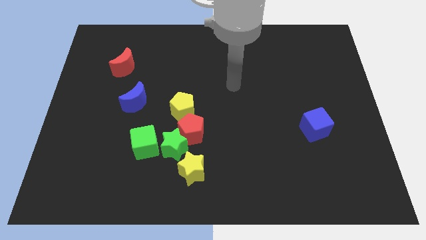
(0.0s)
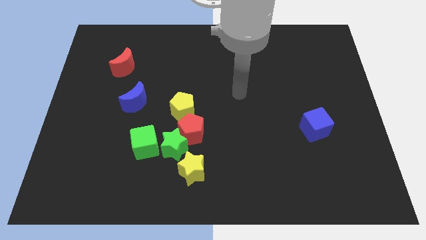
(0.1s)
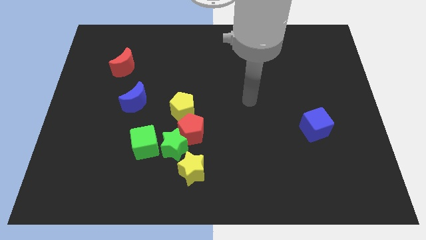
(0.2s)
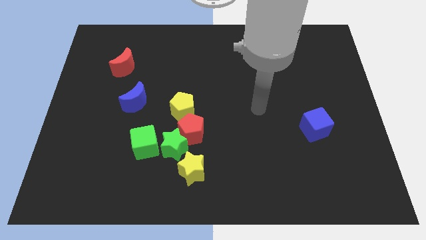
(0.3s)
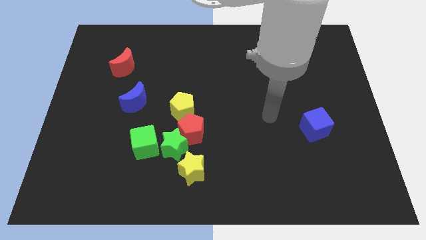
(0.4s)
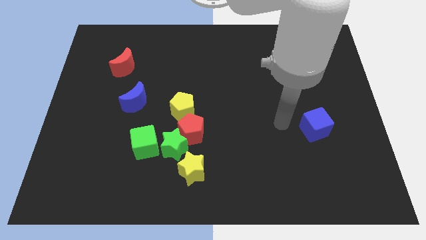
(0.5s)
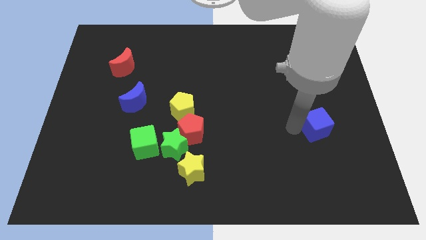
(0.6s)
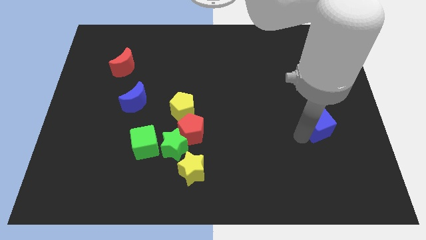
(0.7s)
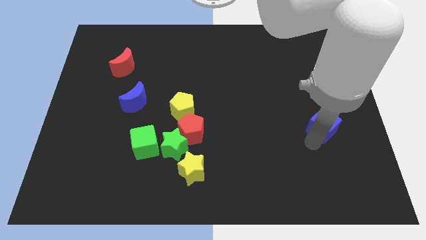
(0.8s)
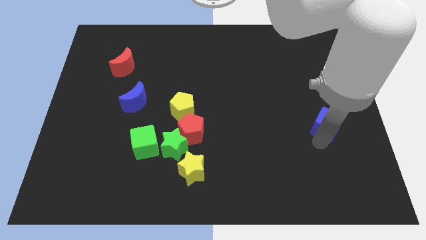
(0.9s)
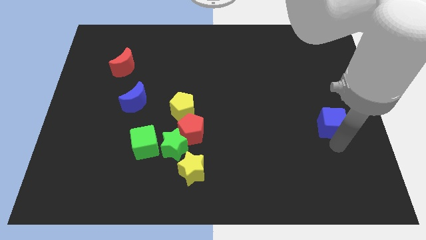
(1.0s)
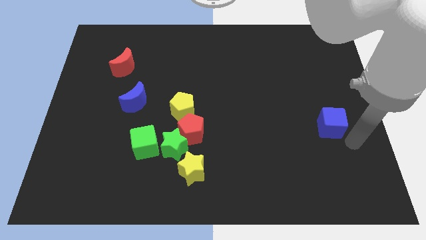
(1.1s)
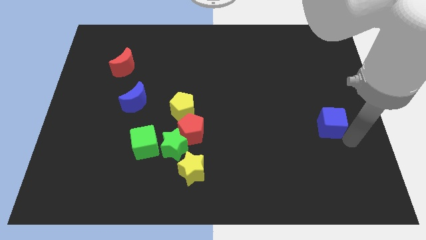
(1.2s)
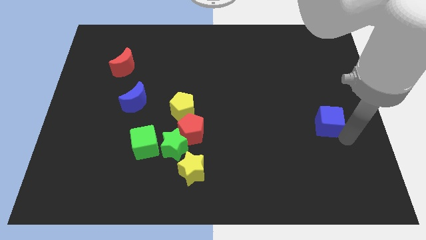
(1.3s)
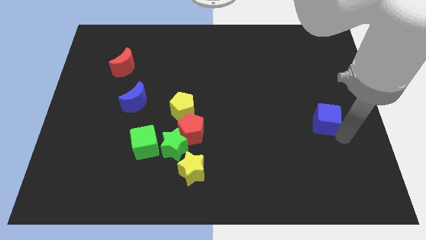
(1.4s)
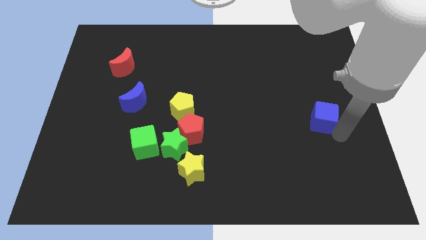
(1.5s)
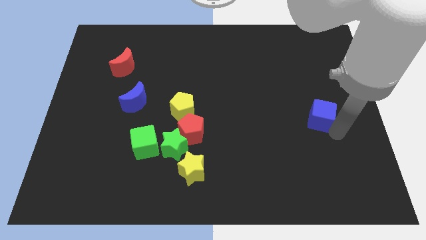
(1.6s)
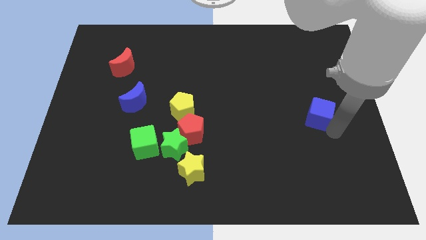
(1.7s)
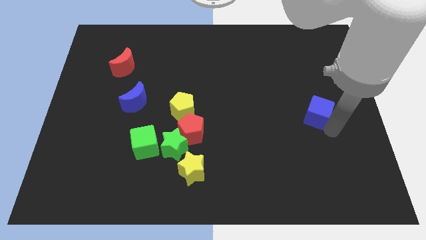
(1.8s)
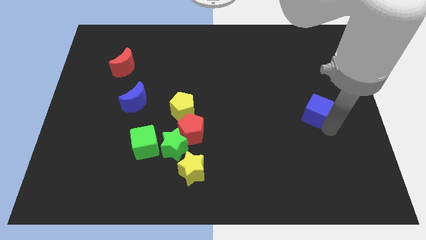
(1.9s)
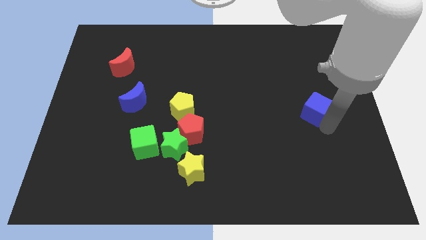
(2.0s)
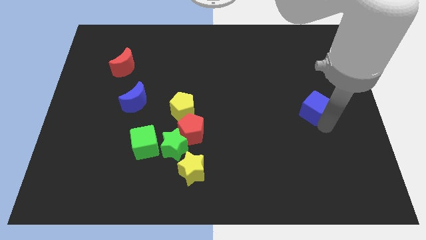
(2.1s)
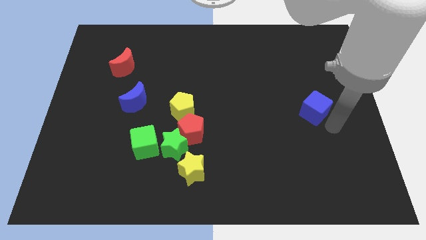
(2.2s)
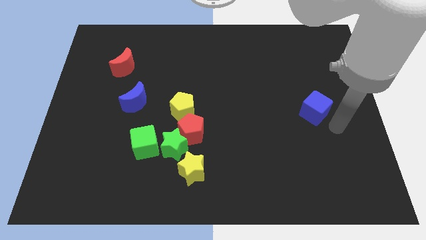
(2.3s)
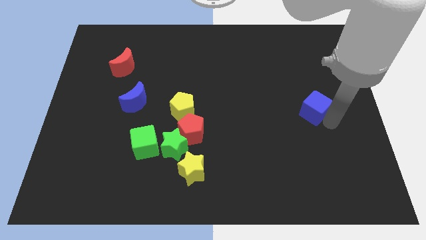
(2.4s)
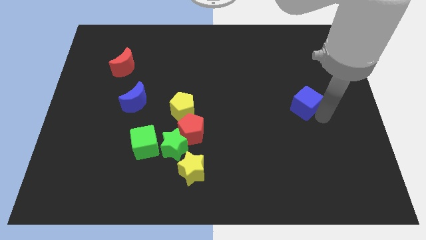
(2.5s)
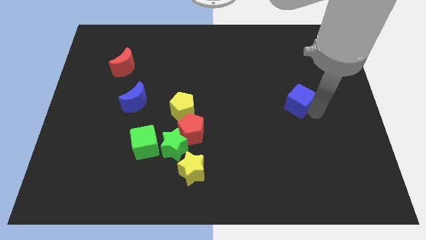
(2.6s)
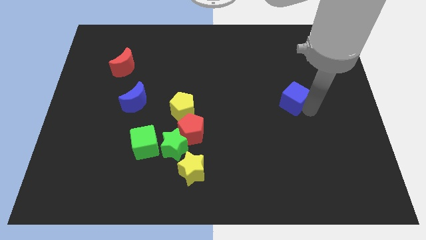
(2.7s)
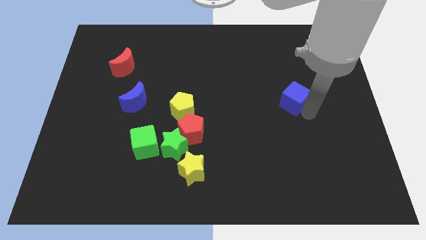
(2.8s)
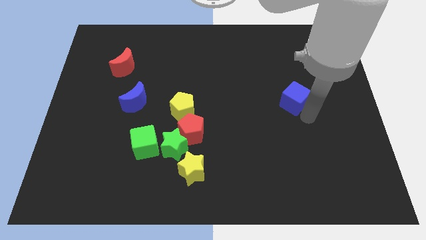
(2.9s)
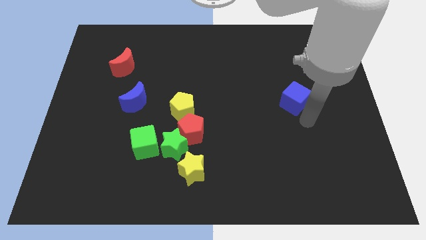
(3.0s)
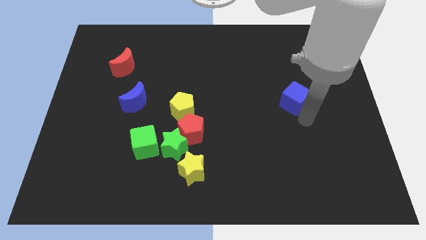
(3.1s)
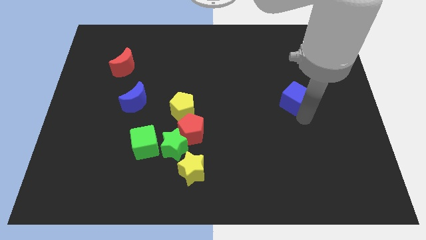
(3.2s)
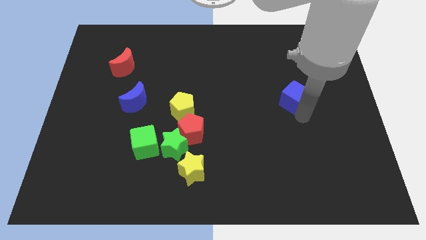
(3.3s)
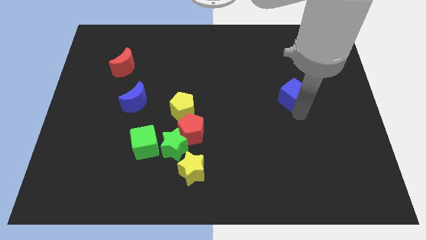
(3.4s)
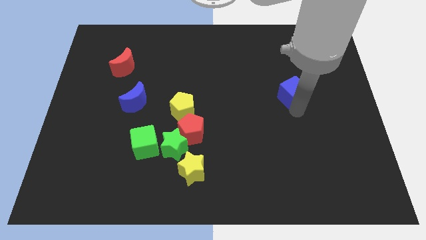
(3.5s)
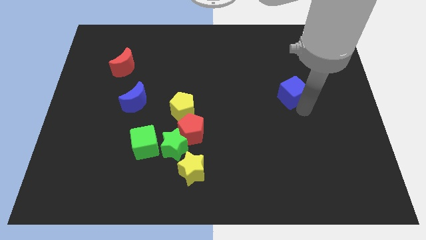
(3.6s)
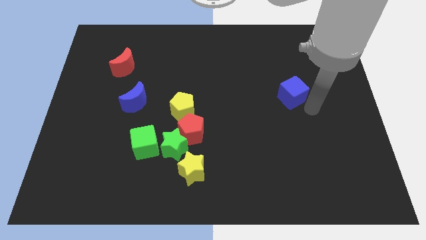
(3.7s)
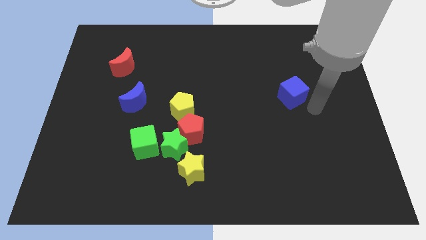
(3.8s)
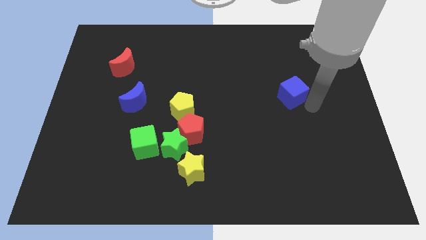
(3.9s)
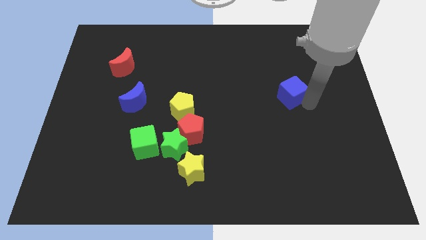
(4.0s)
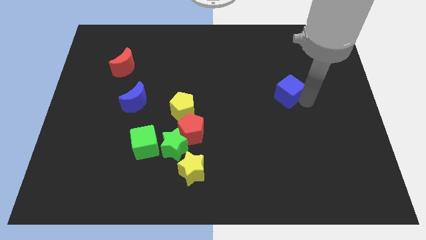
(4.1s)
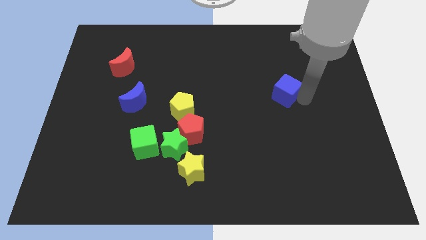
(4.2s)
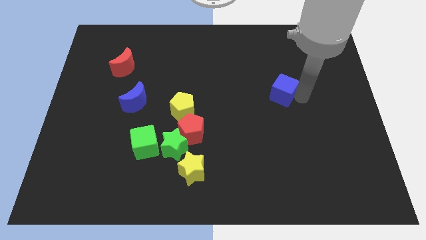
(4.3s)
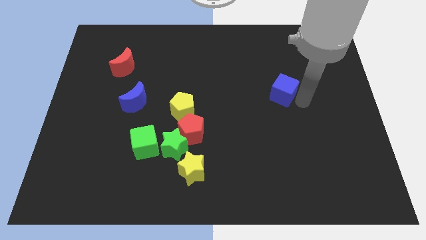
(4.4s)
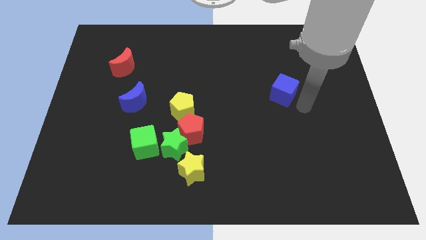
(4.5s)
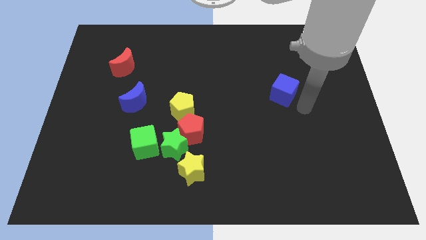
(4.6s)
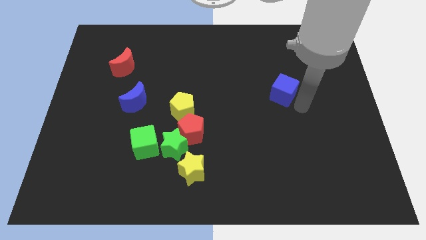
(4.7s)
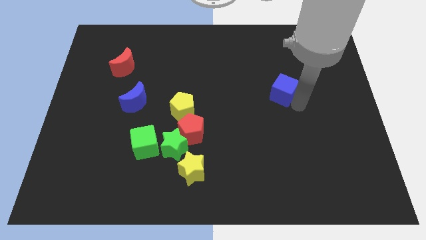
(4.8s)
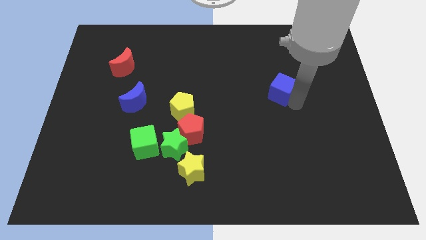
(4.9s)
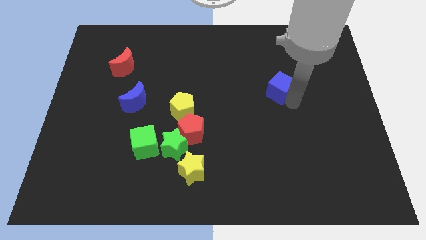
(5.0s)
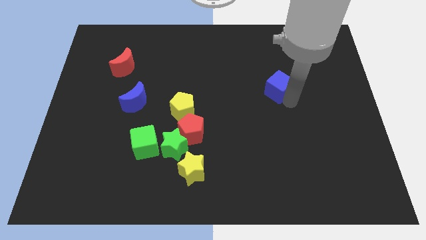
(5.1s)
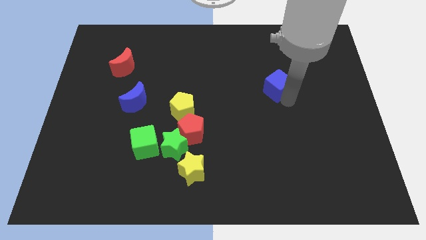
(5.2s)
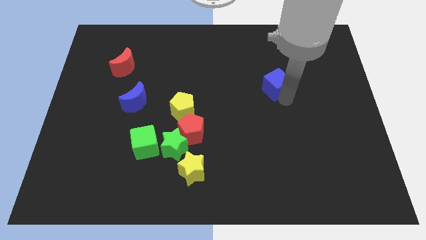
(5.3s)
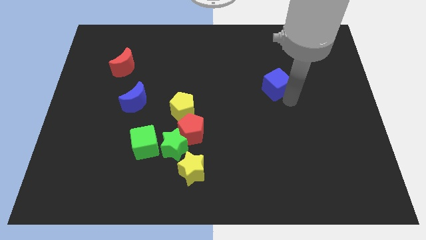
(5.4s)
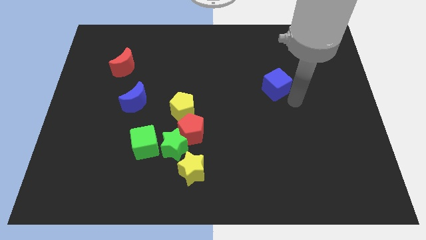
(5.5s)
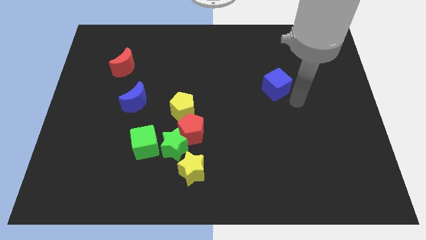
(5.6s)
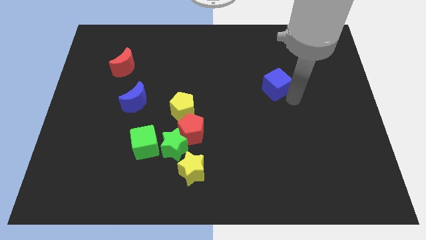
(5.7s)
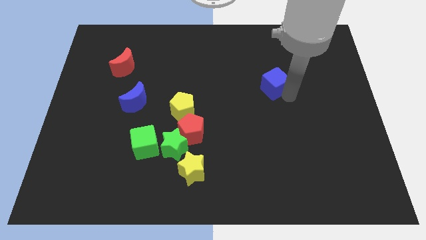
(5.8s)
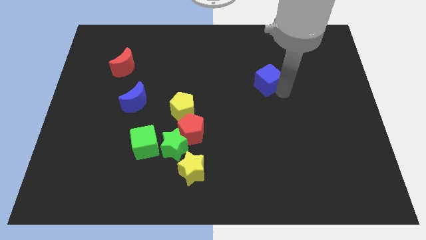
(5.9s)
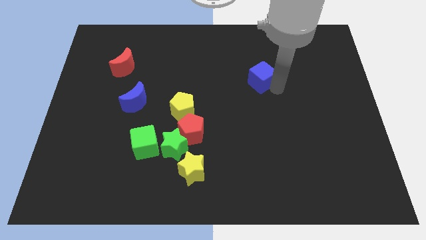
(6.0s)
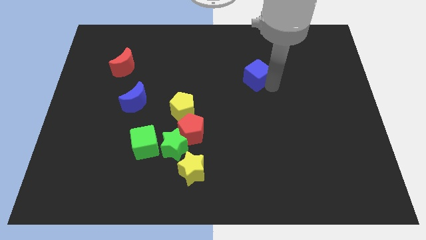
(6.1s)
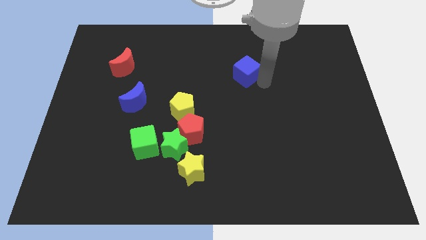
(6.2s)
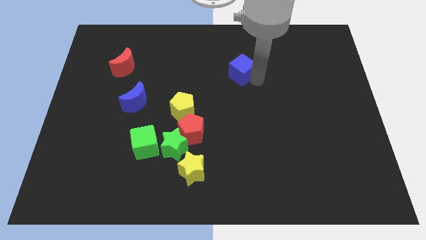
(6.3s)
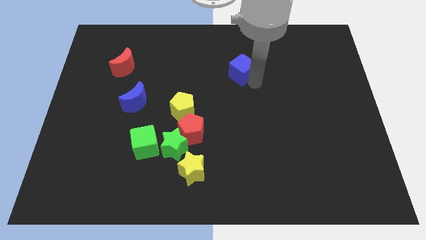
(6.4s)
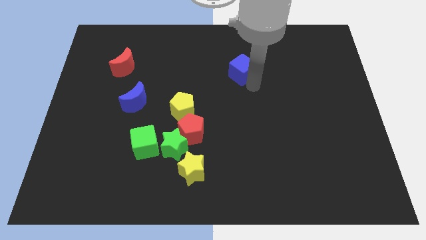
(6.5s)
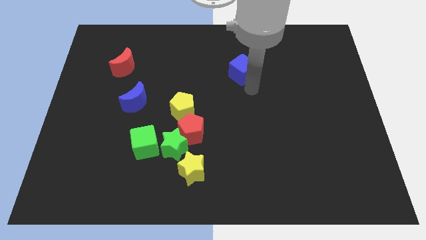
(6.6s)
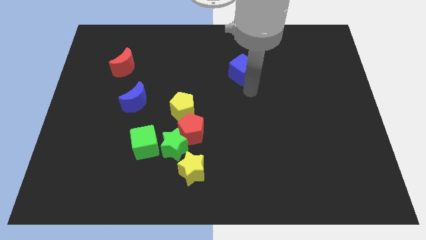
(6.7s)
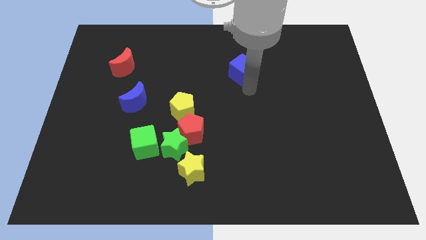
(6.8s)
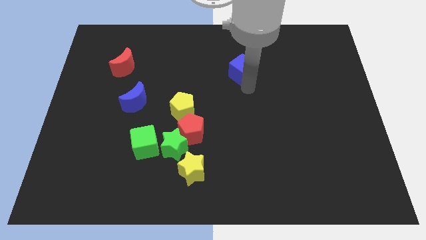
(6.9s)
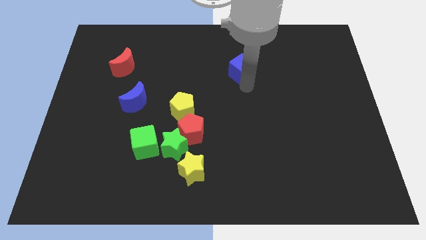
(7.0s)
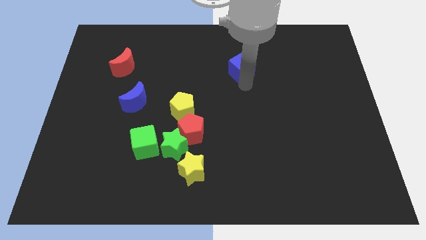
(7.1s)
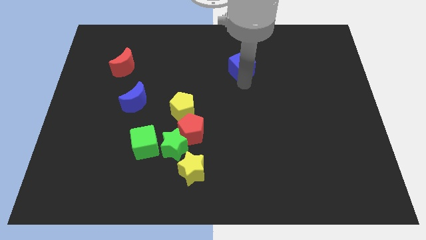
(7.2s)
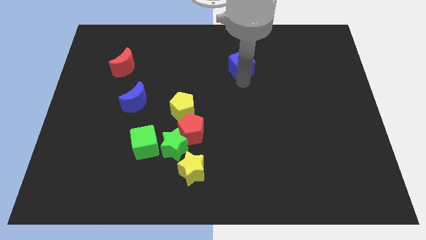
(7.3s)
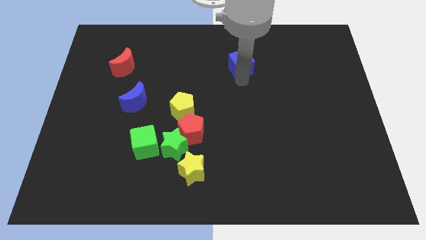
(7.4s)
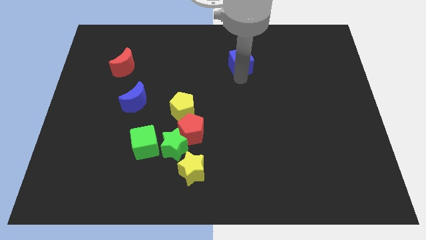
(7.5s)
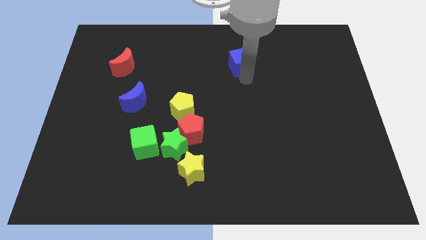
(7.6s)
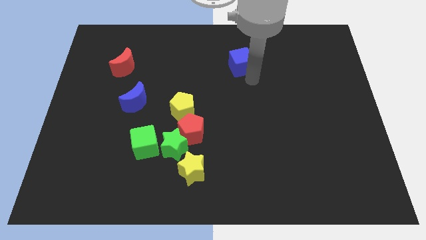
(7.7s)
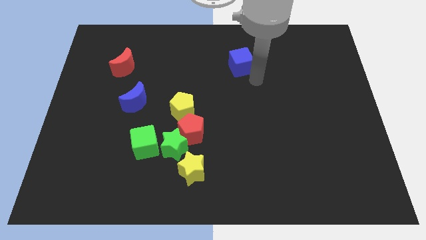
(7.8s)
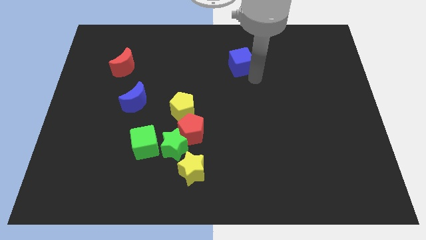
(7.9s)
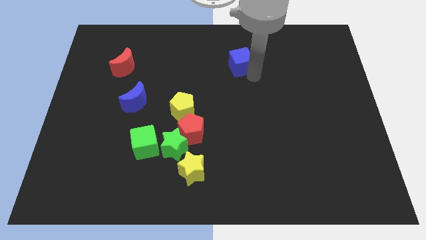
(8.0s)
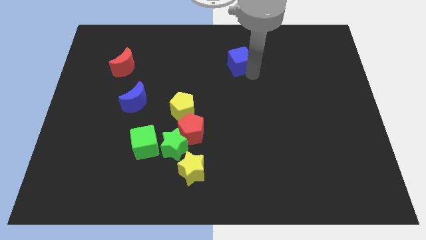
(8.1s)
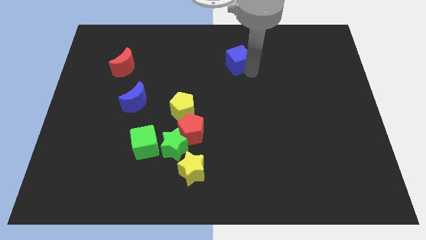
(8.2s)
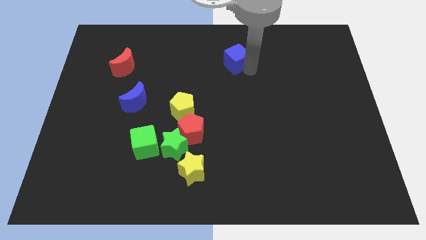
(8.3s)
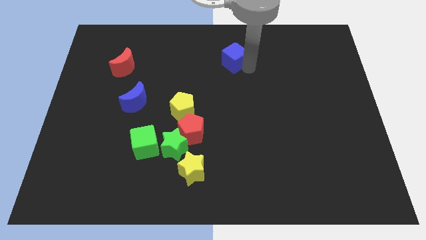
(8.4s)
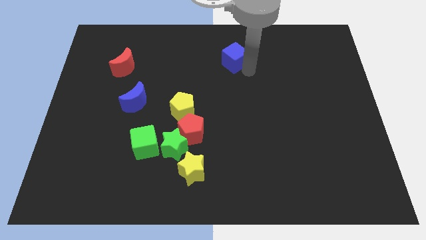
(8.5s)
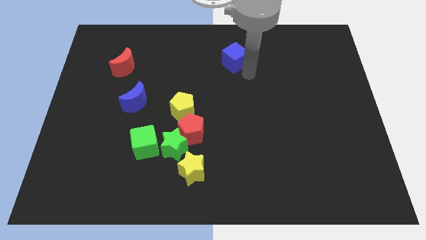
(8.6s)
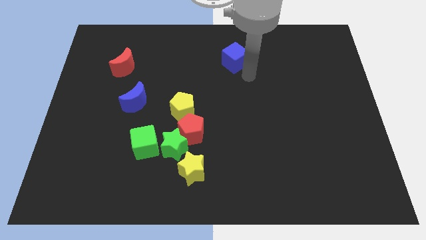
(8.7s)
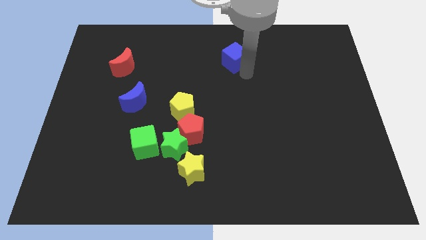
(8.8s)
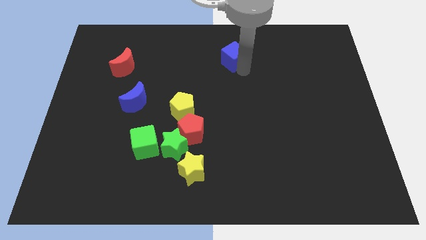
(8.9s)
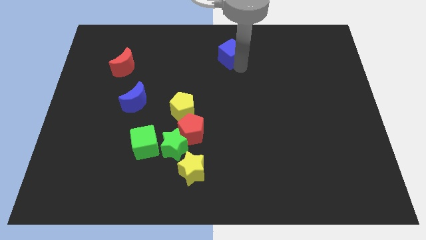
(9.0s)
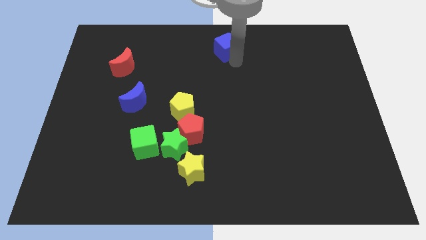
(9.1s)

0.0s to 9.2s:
push the blue cube to the top side
